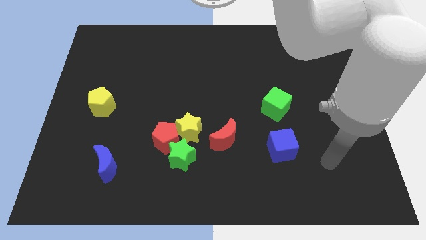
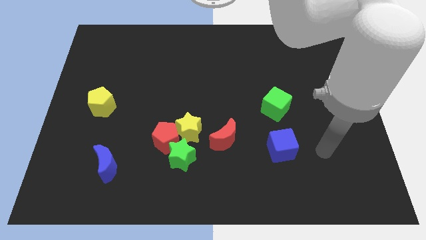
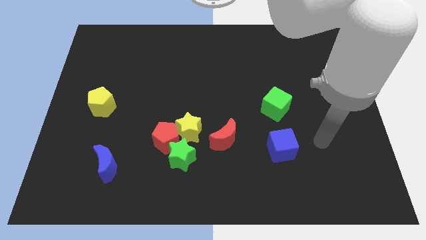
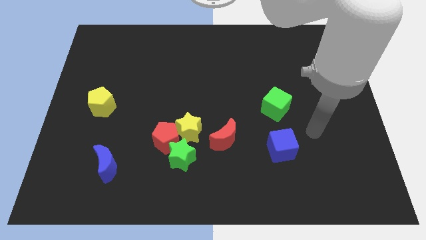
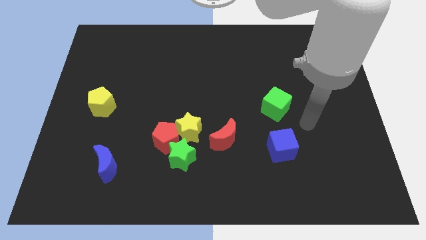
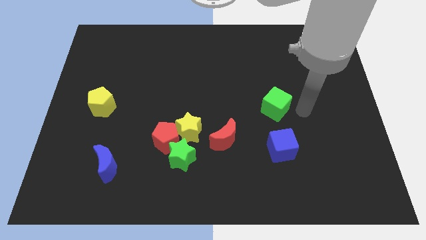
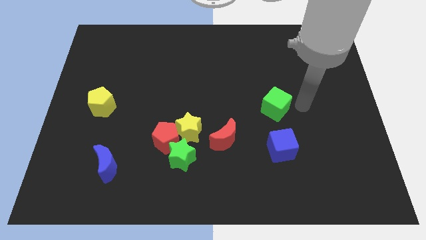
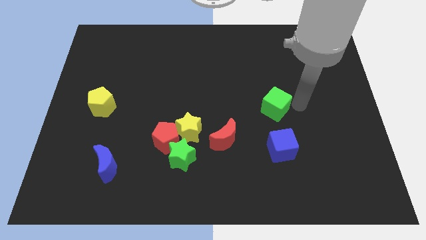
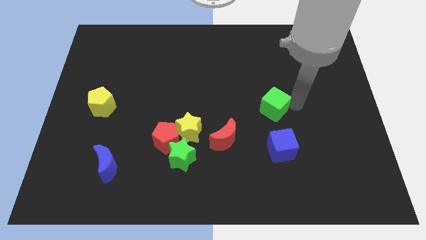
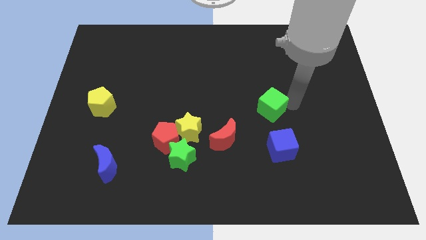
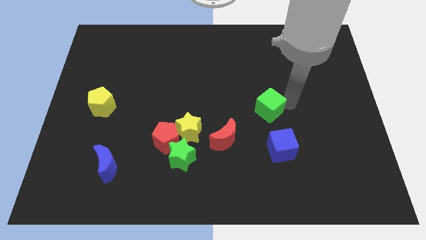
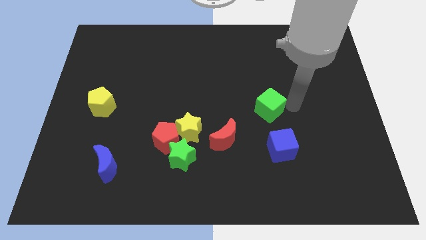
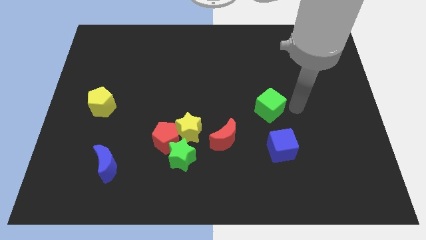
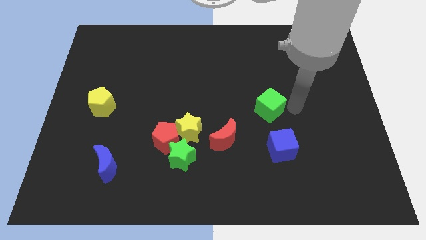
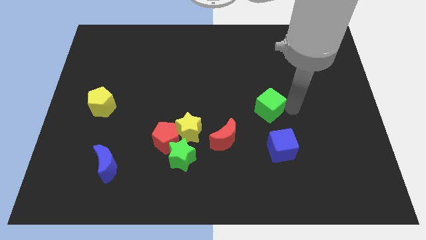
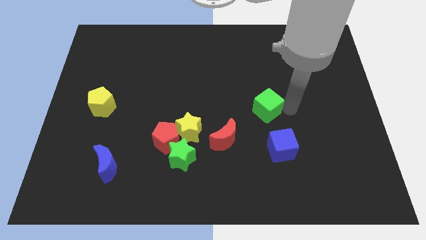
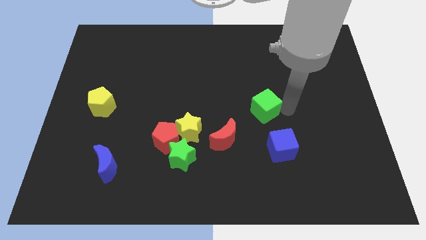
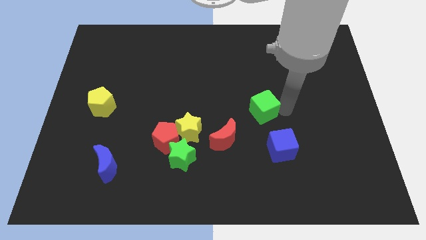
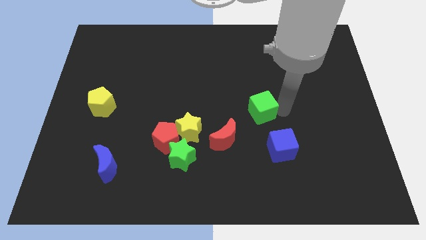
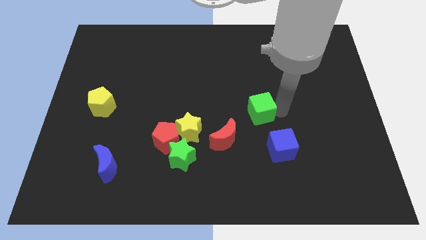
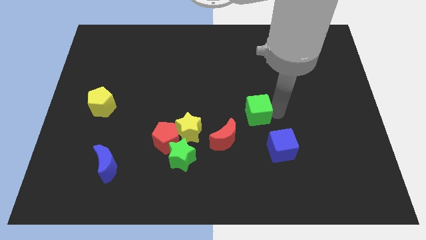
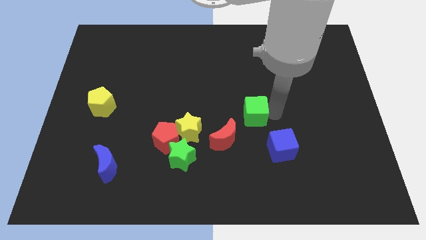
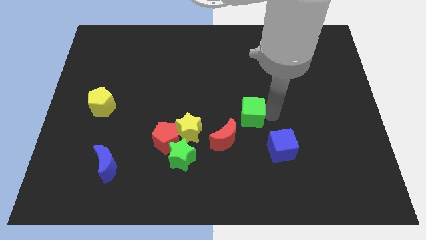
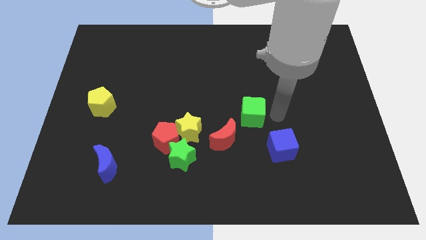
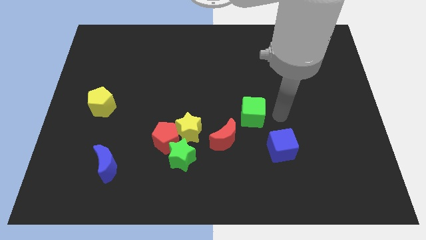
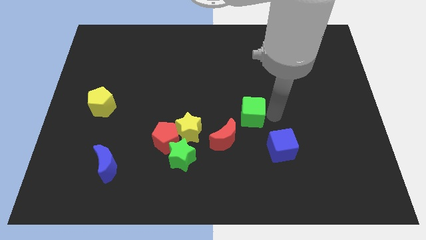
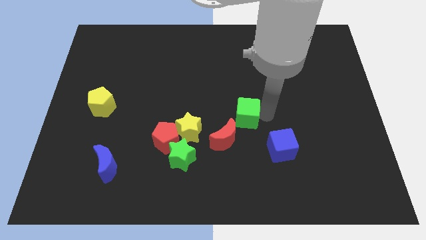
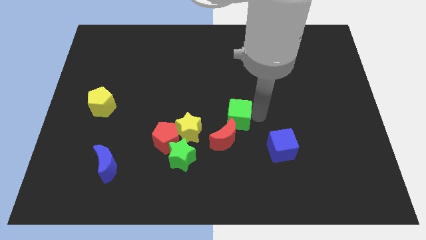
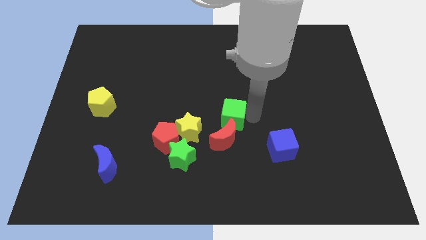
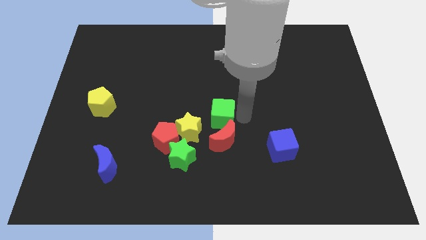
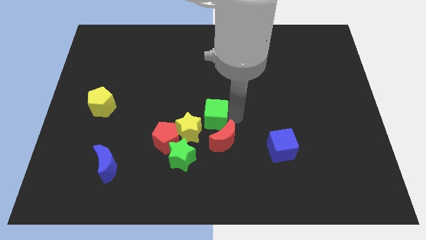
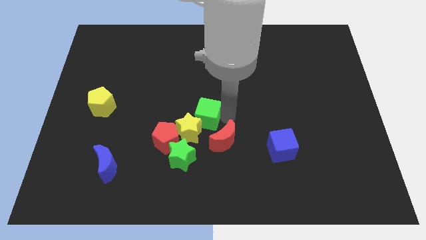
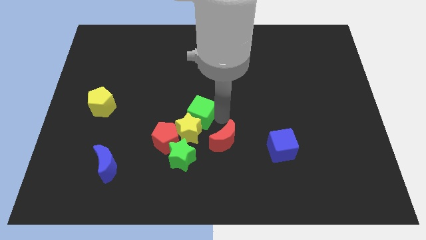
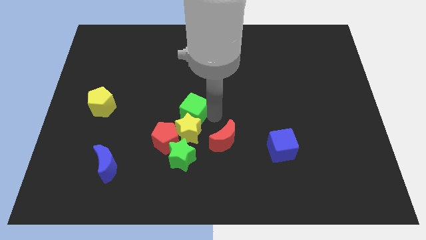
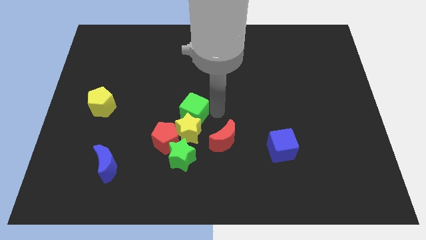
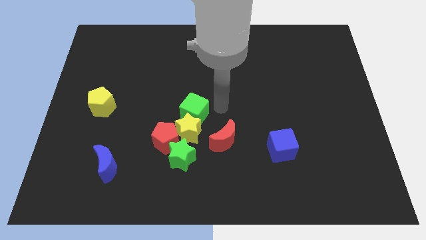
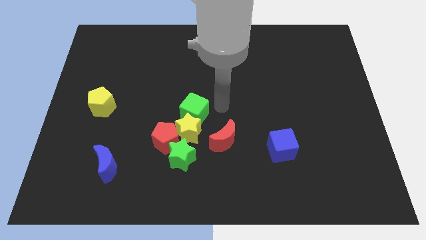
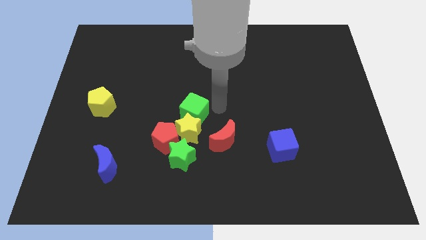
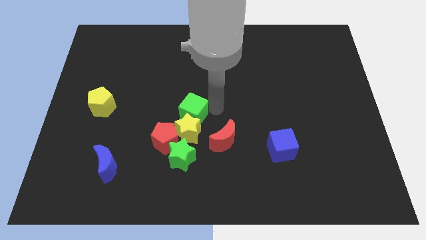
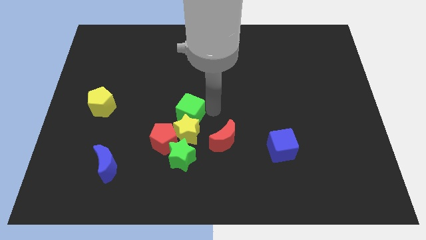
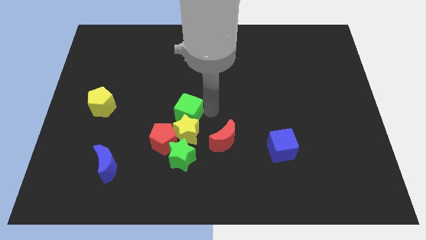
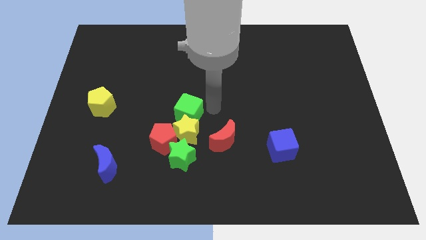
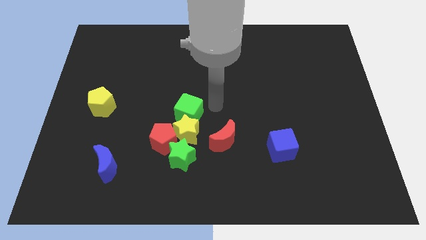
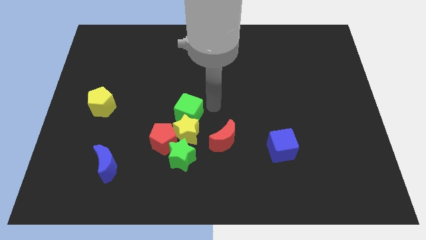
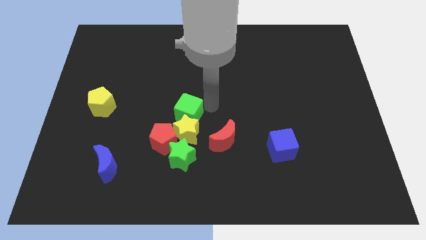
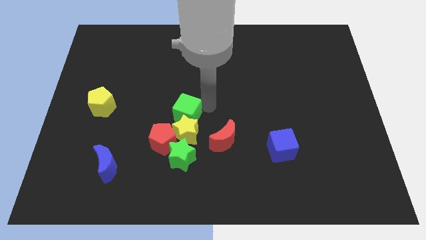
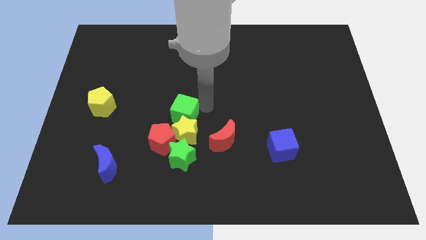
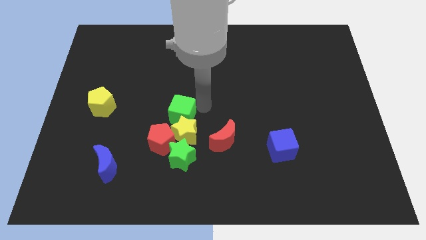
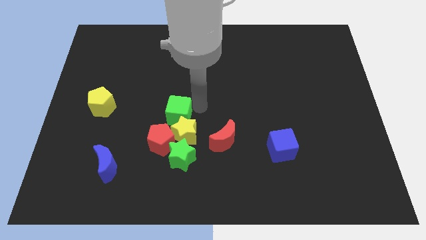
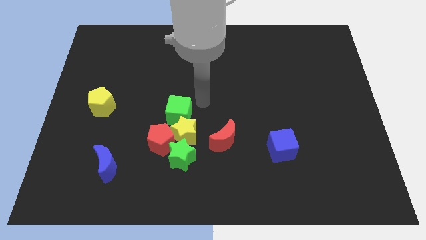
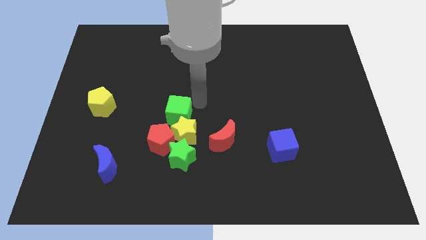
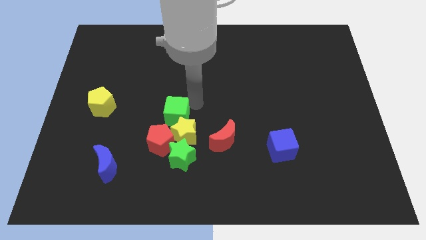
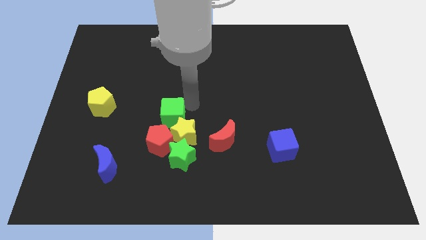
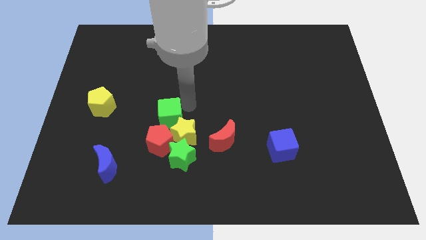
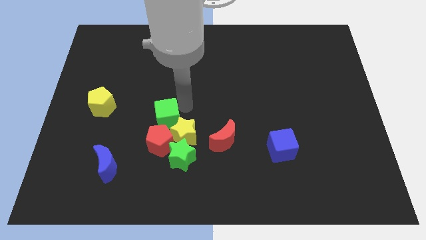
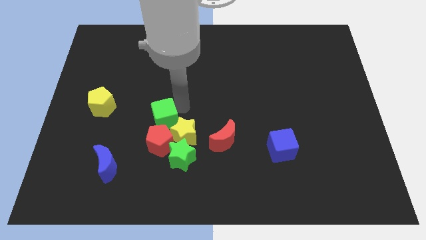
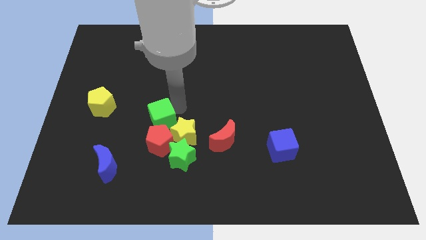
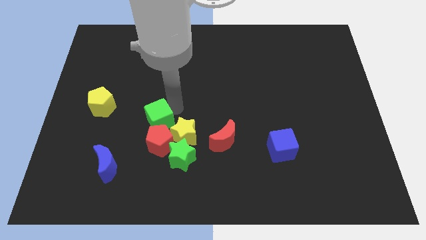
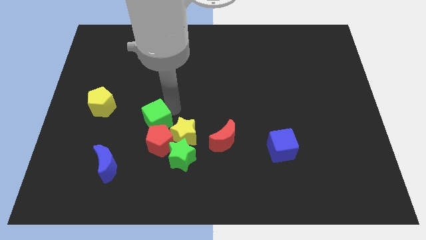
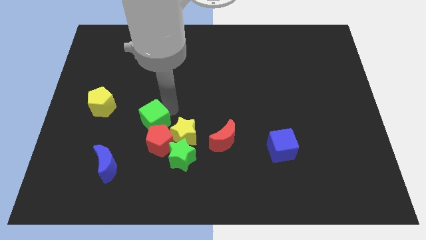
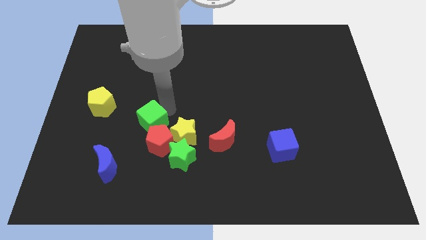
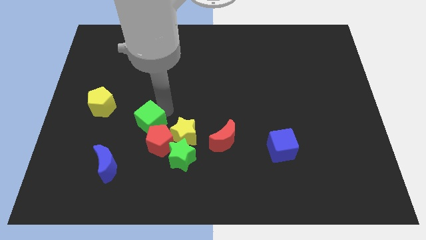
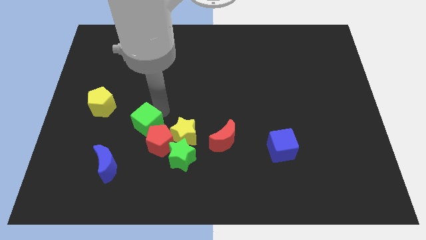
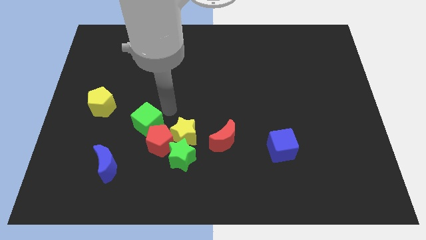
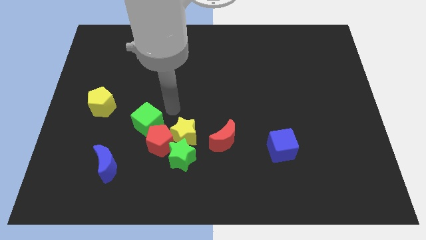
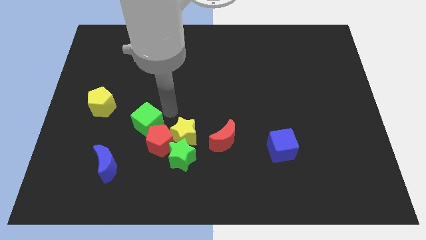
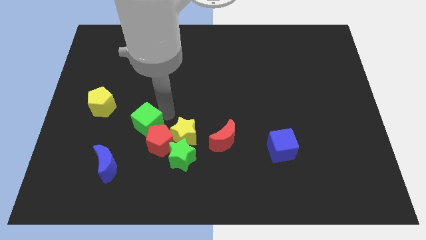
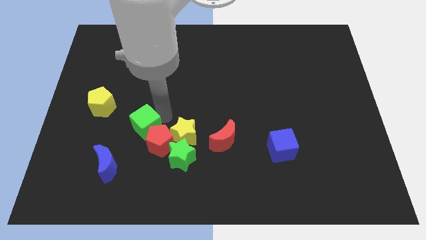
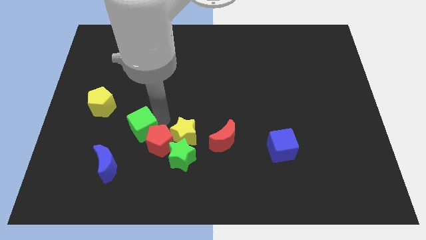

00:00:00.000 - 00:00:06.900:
slide the green cube just left of the red pentagon

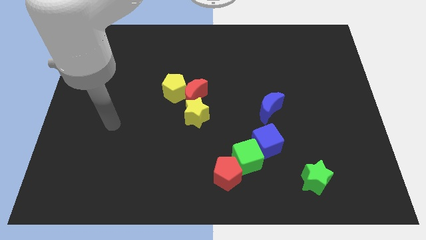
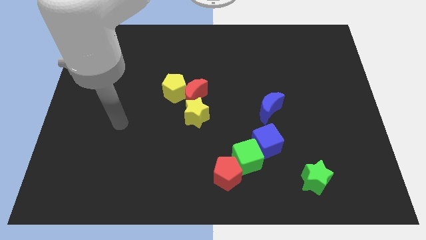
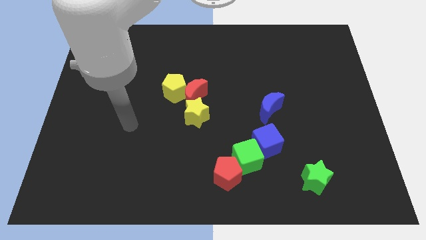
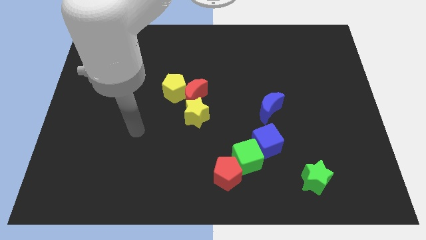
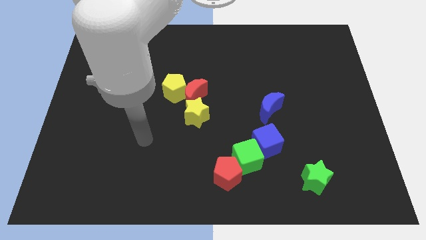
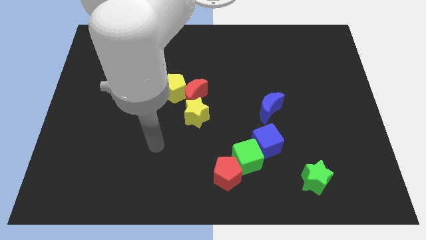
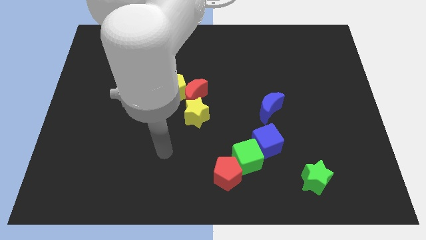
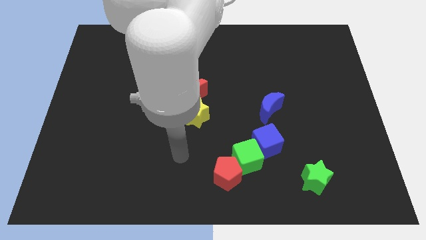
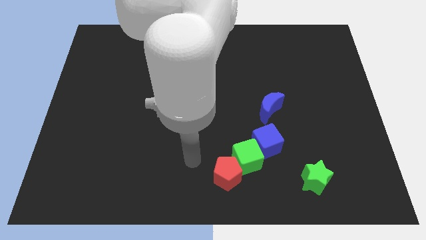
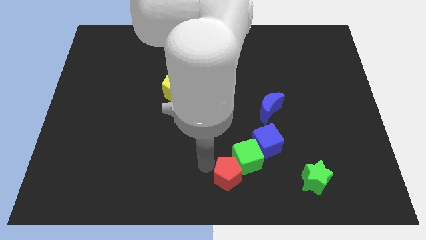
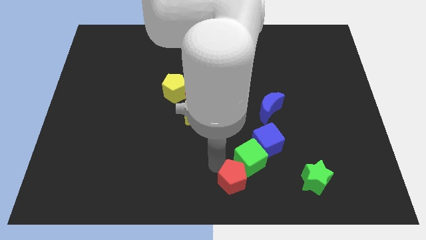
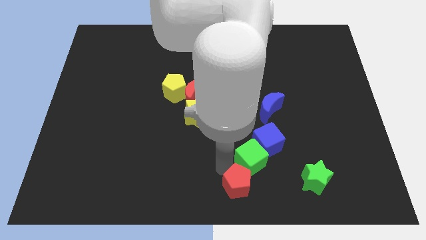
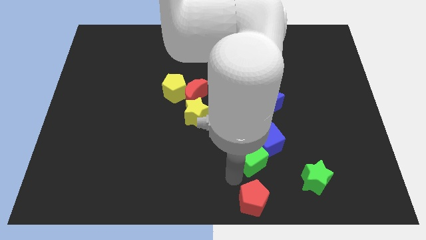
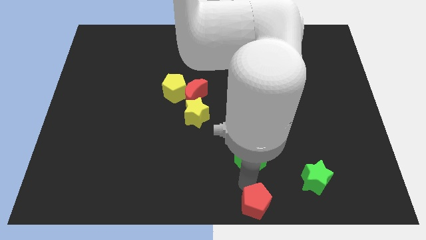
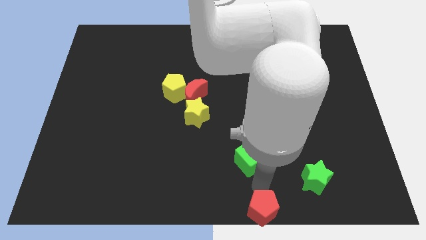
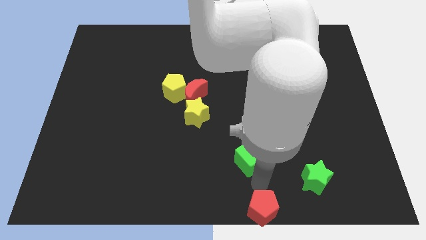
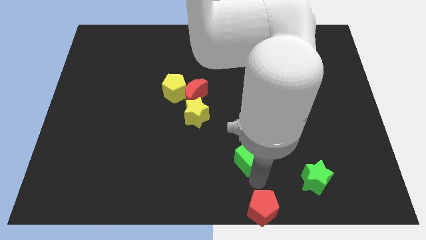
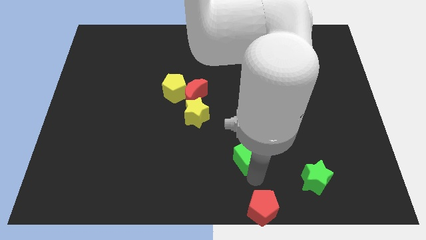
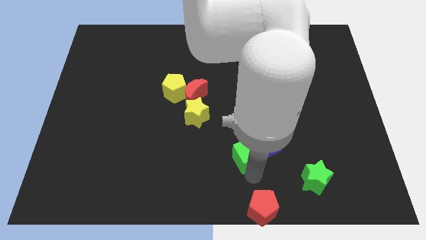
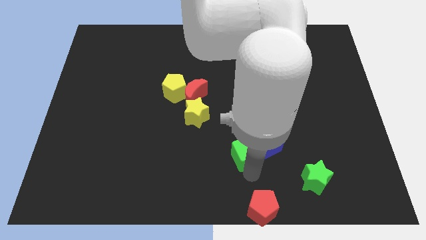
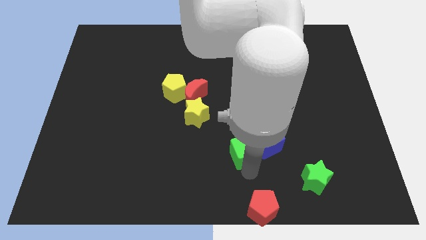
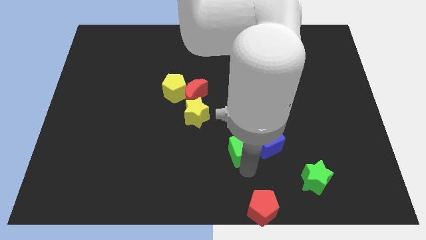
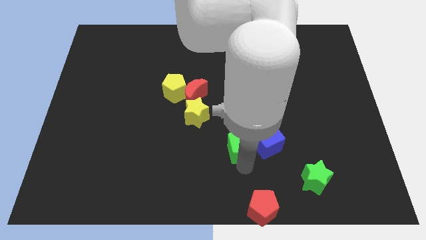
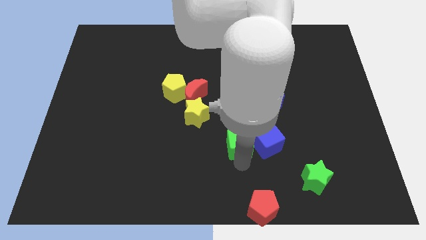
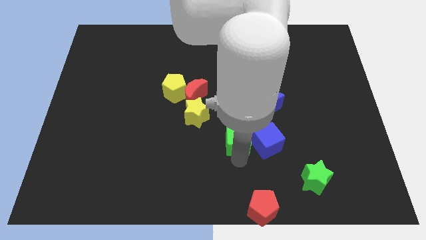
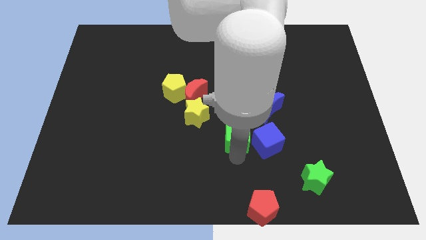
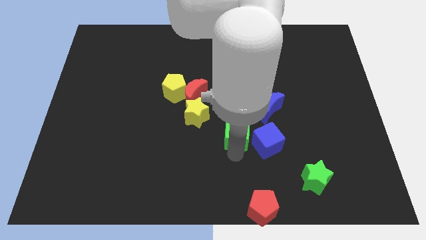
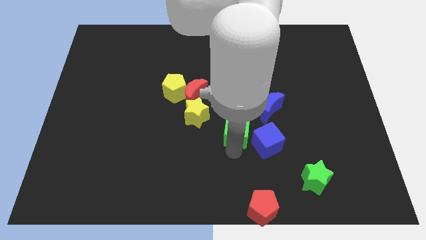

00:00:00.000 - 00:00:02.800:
push the green cube to the right side of the yellow star
